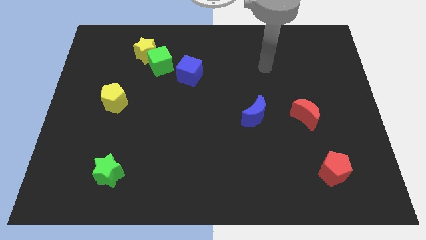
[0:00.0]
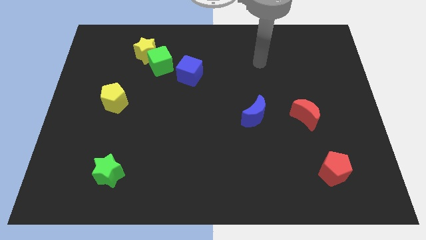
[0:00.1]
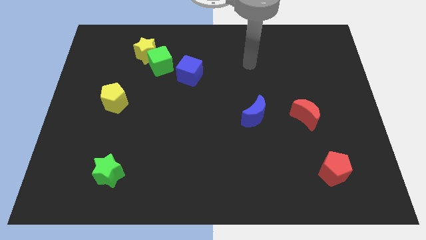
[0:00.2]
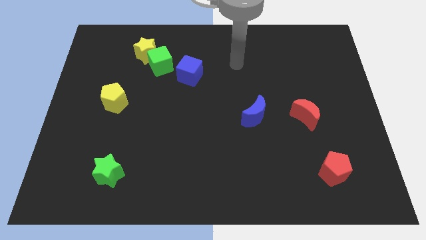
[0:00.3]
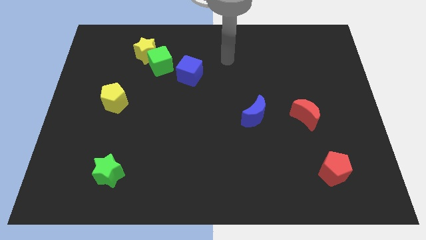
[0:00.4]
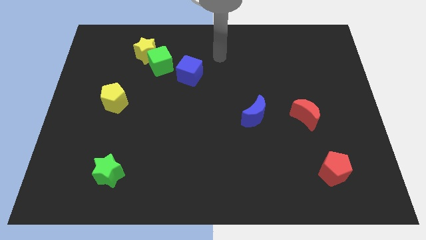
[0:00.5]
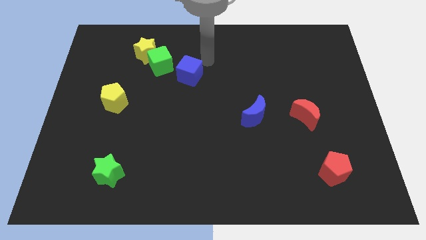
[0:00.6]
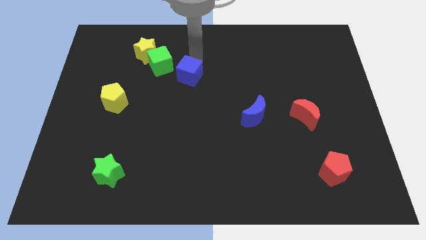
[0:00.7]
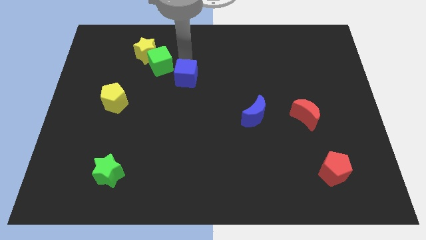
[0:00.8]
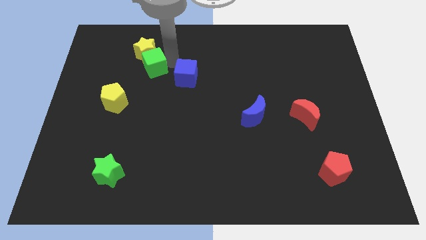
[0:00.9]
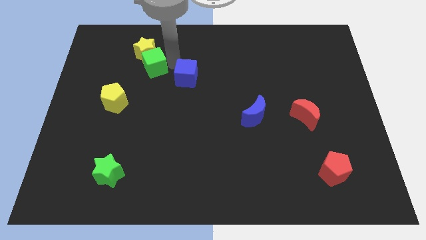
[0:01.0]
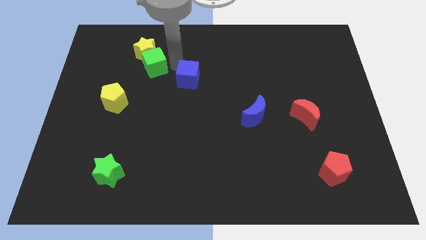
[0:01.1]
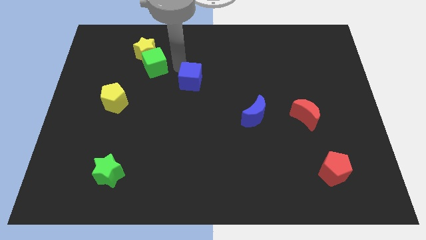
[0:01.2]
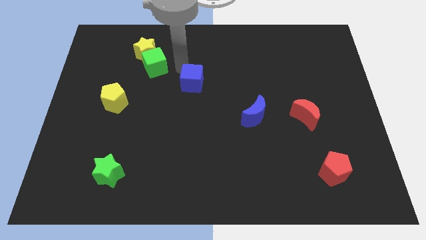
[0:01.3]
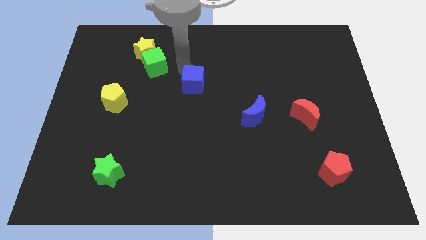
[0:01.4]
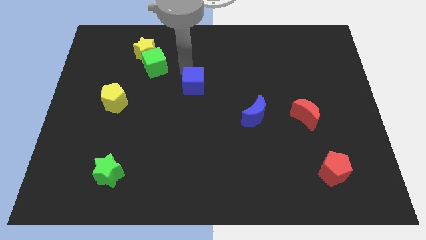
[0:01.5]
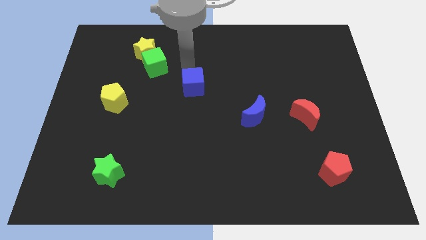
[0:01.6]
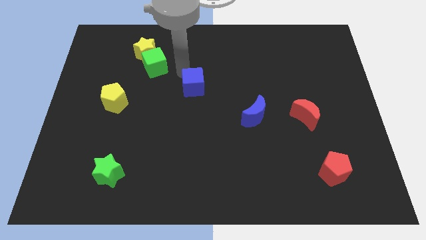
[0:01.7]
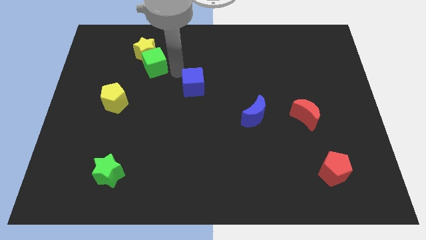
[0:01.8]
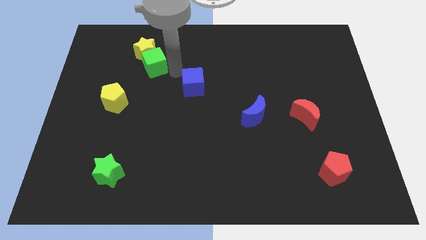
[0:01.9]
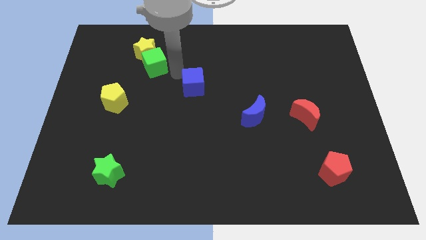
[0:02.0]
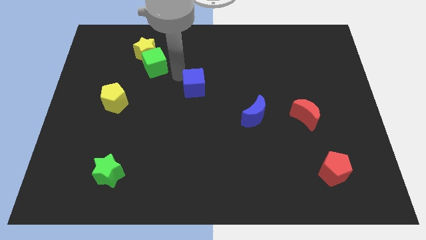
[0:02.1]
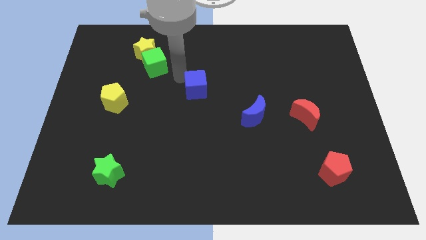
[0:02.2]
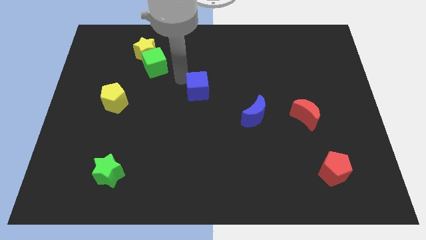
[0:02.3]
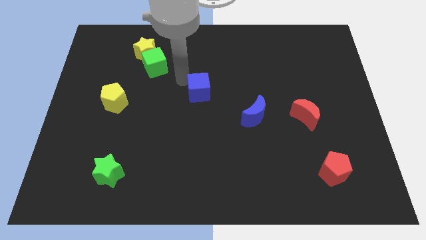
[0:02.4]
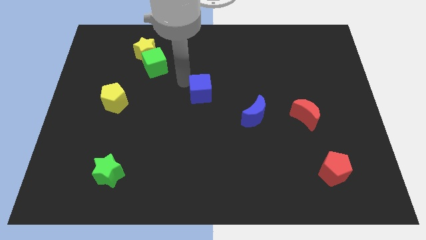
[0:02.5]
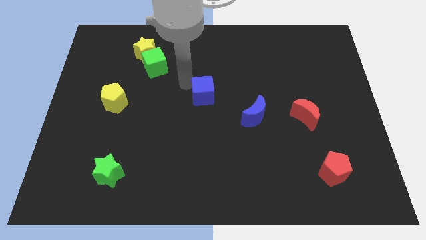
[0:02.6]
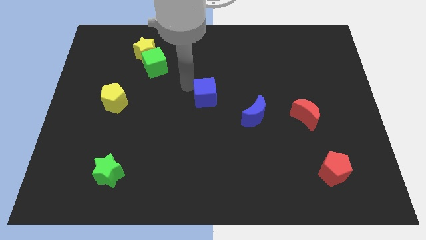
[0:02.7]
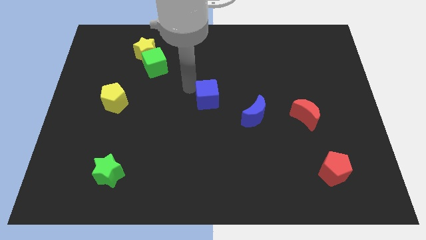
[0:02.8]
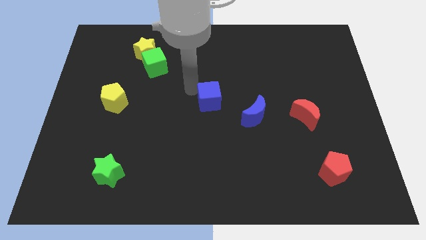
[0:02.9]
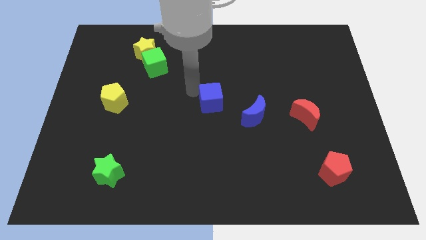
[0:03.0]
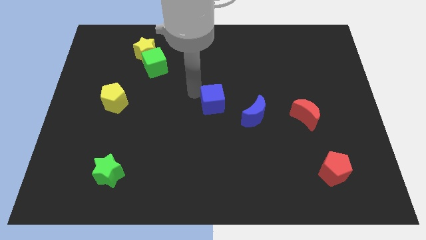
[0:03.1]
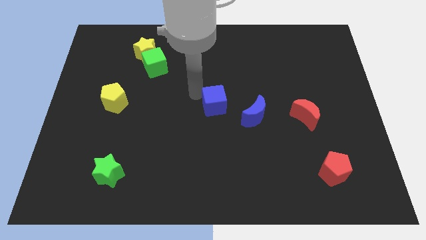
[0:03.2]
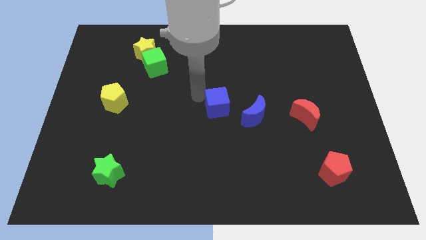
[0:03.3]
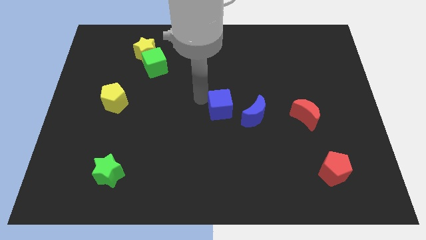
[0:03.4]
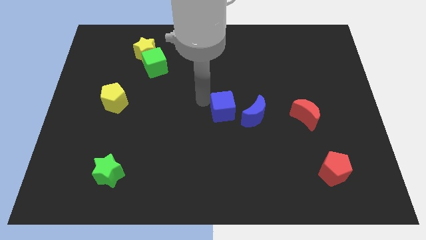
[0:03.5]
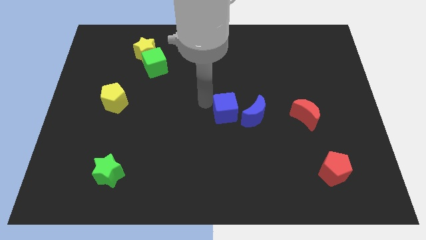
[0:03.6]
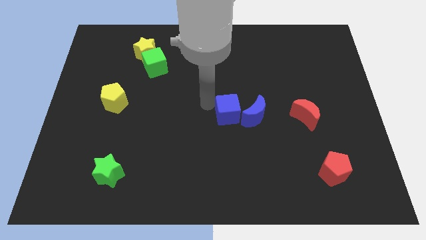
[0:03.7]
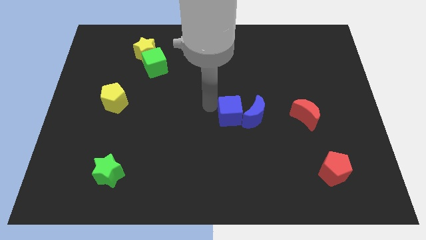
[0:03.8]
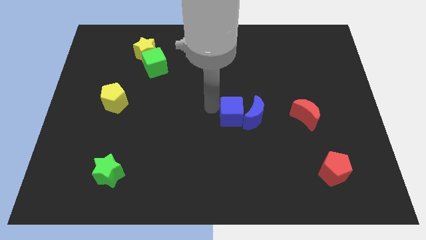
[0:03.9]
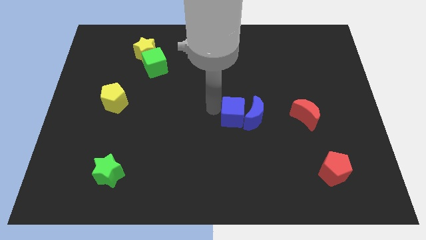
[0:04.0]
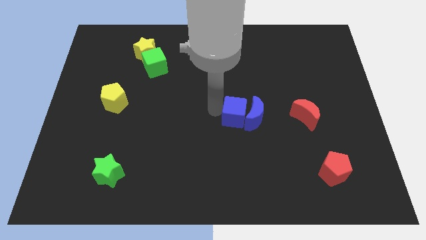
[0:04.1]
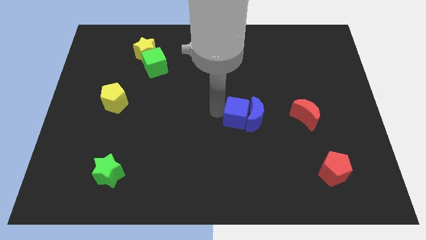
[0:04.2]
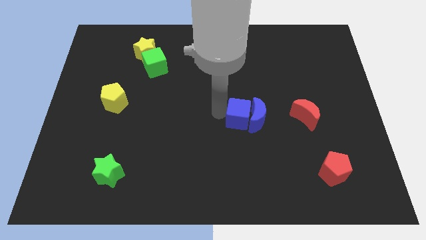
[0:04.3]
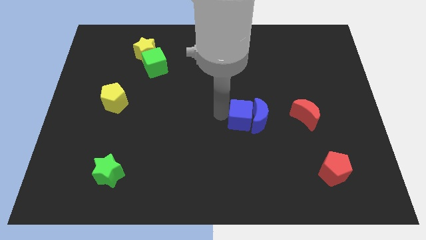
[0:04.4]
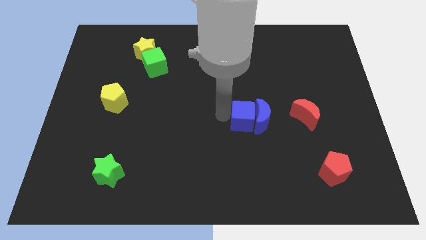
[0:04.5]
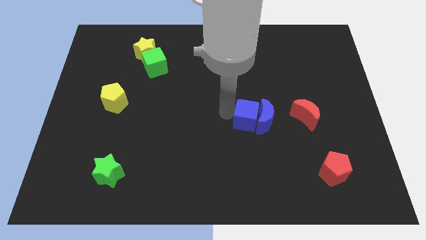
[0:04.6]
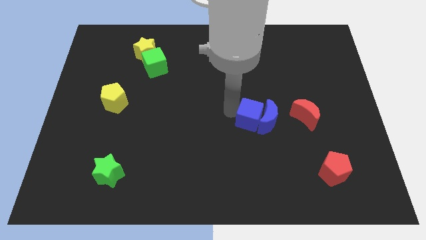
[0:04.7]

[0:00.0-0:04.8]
push the blue cube diagonally downwards and to the right

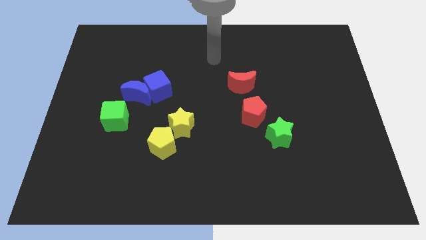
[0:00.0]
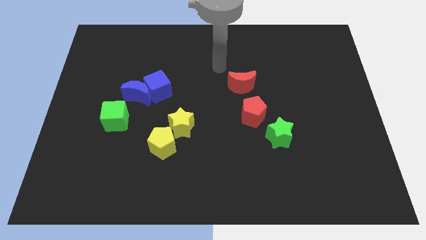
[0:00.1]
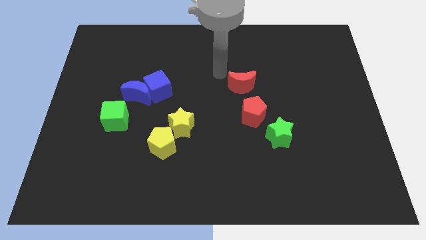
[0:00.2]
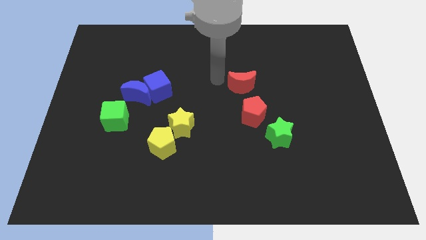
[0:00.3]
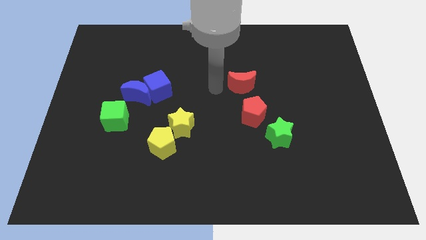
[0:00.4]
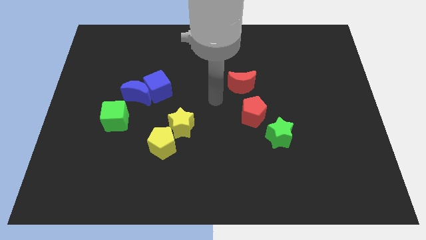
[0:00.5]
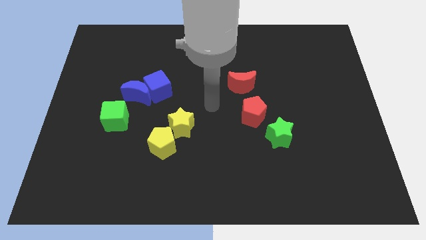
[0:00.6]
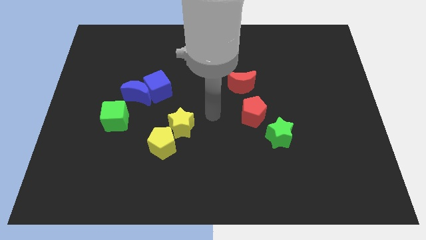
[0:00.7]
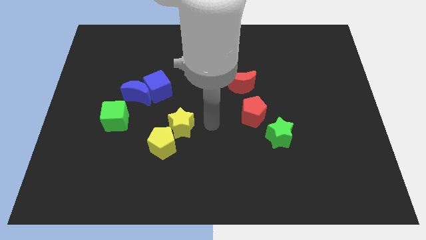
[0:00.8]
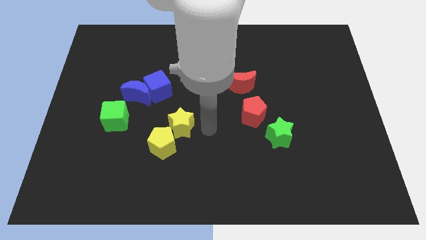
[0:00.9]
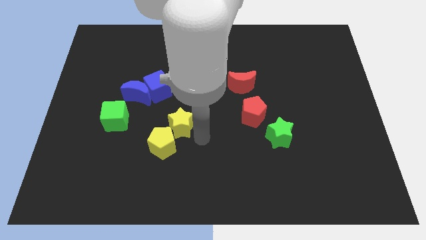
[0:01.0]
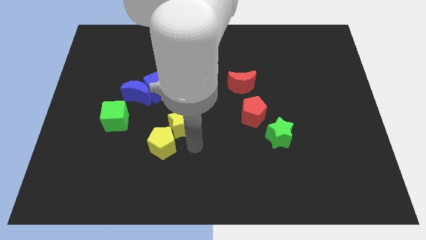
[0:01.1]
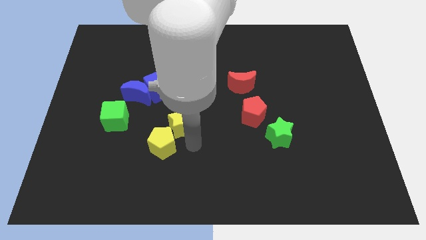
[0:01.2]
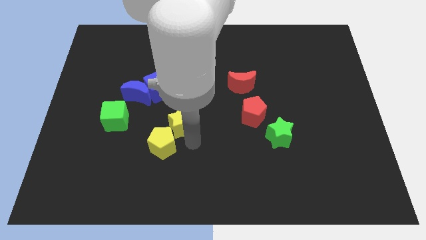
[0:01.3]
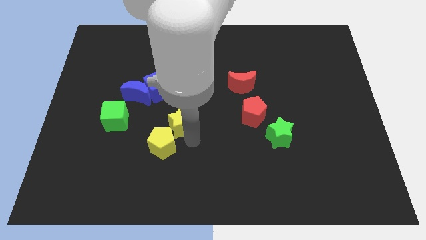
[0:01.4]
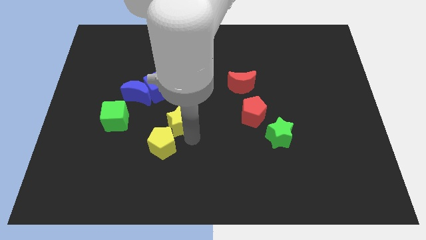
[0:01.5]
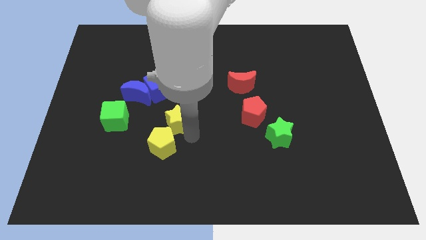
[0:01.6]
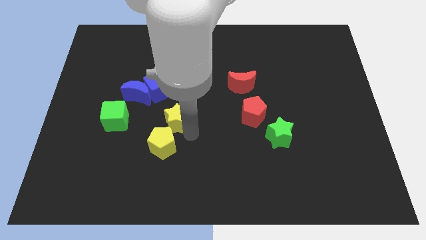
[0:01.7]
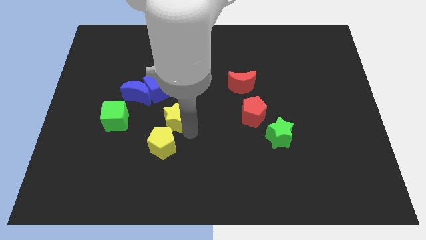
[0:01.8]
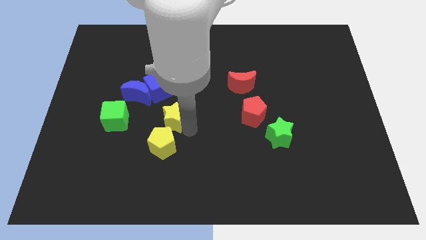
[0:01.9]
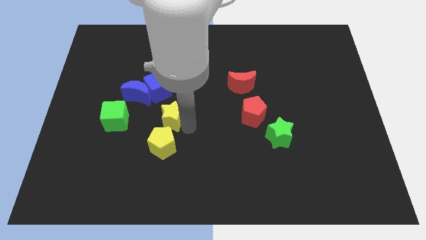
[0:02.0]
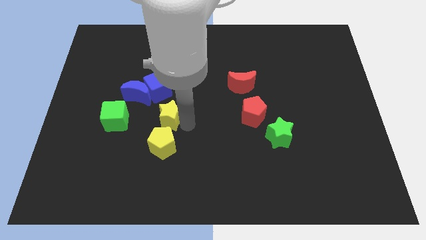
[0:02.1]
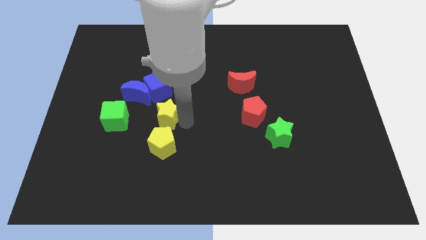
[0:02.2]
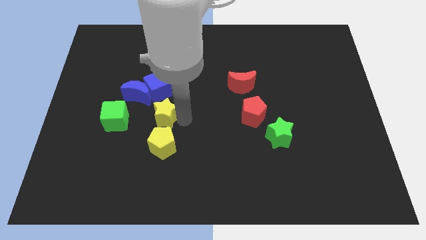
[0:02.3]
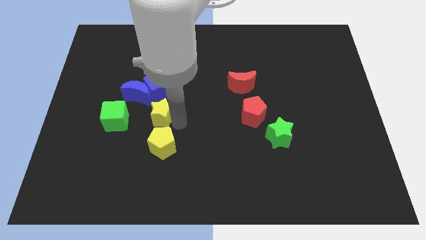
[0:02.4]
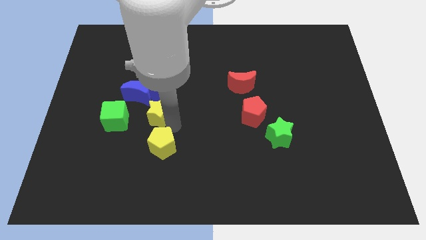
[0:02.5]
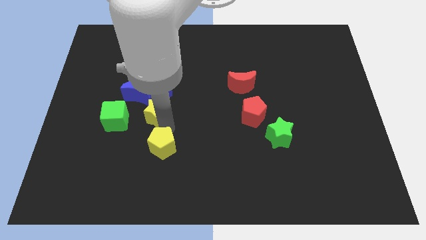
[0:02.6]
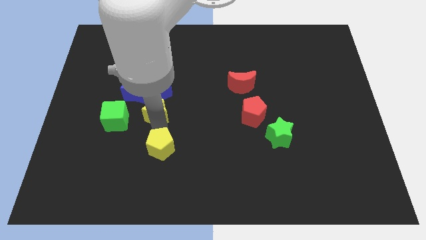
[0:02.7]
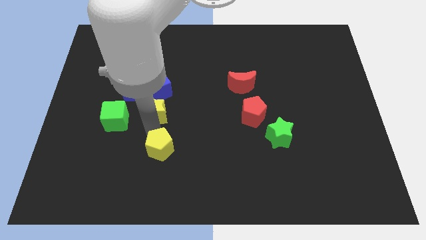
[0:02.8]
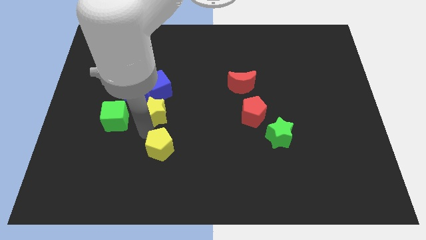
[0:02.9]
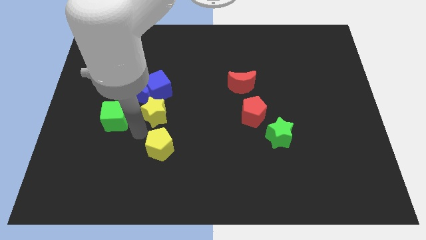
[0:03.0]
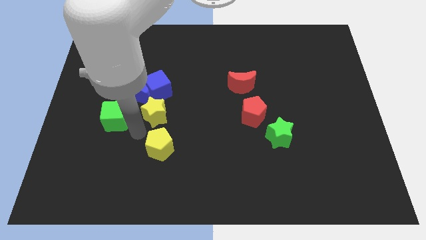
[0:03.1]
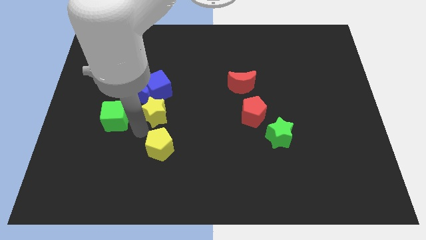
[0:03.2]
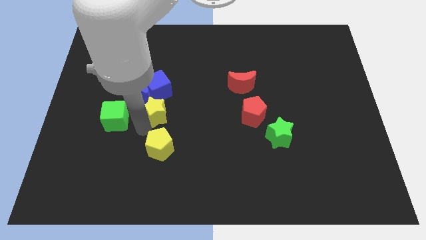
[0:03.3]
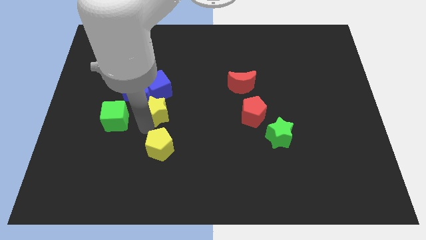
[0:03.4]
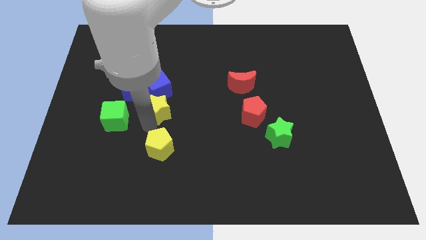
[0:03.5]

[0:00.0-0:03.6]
move the yellow star up and to the left diagonally a little
